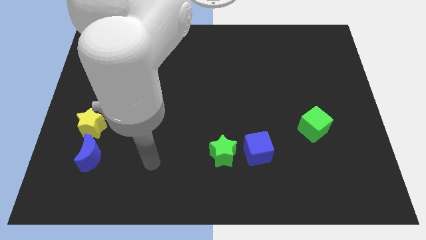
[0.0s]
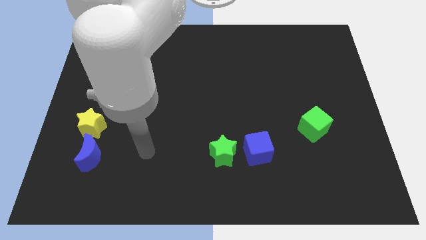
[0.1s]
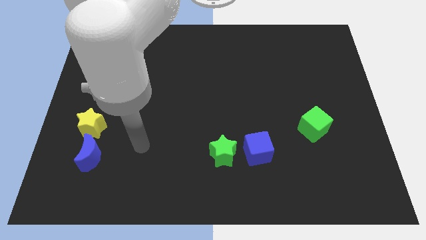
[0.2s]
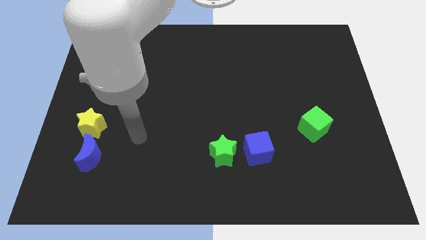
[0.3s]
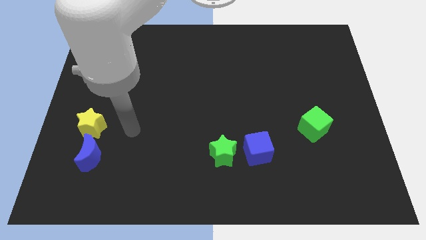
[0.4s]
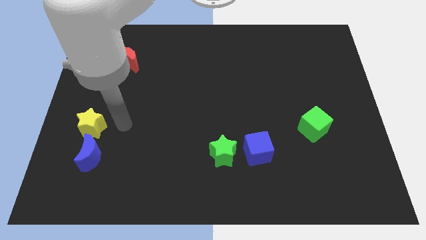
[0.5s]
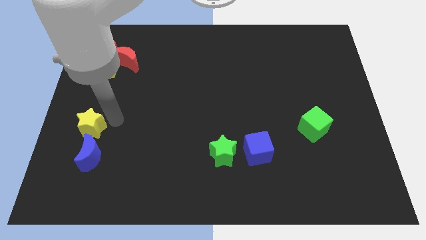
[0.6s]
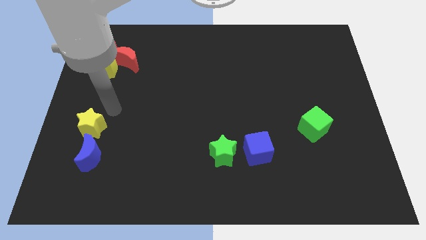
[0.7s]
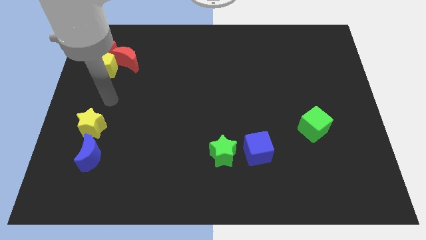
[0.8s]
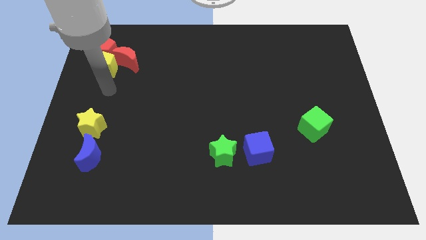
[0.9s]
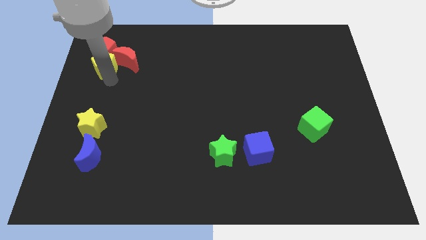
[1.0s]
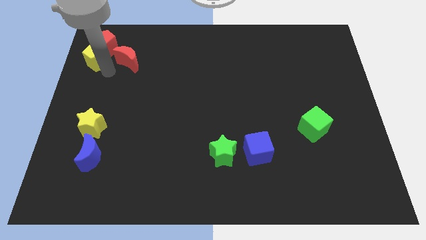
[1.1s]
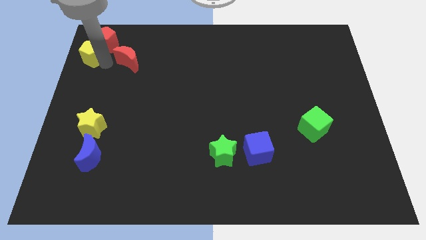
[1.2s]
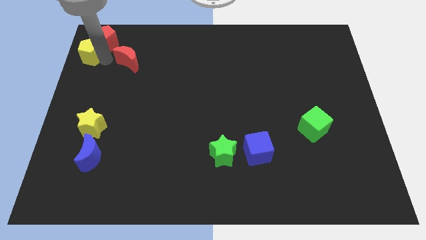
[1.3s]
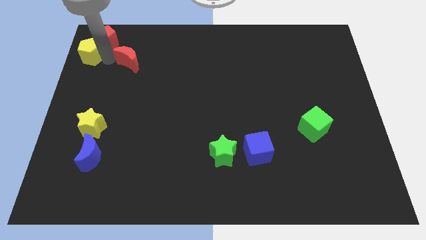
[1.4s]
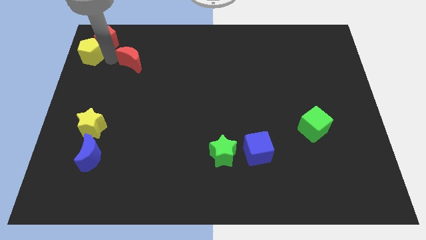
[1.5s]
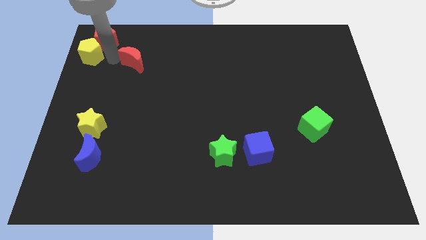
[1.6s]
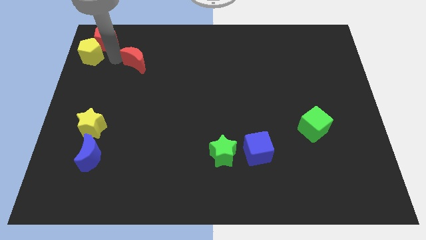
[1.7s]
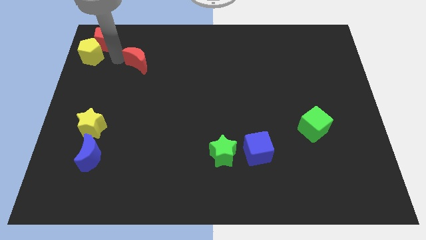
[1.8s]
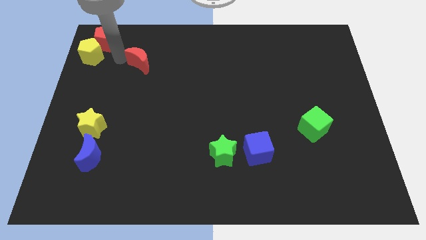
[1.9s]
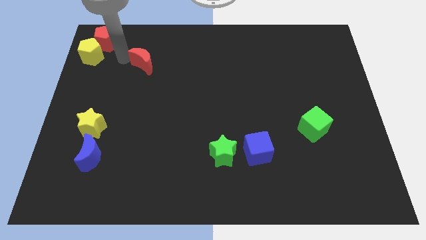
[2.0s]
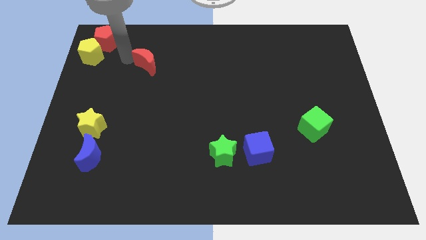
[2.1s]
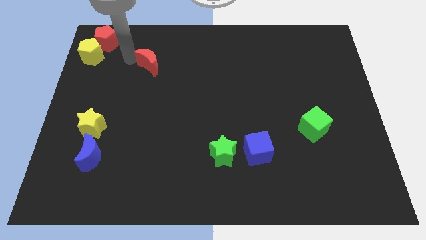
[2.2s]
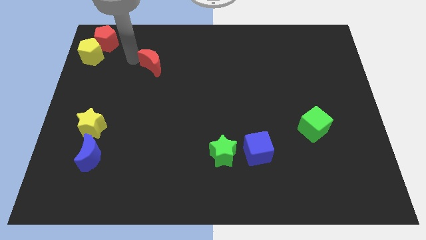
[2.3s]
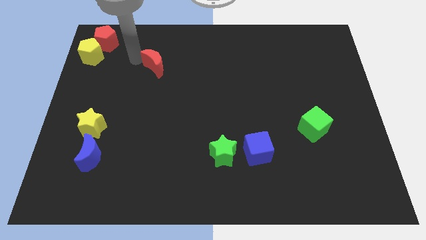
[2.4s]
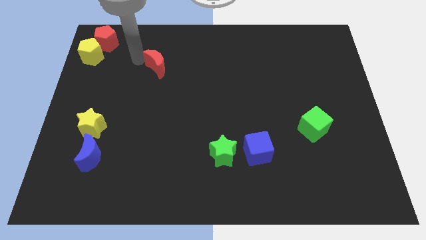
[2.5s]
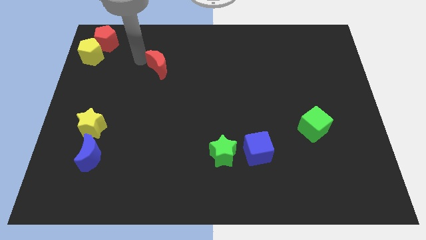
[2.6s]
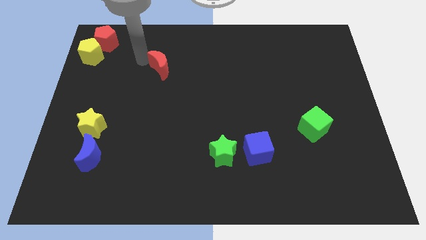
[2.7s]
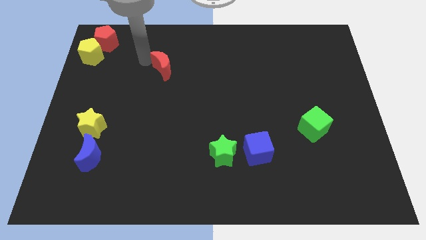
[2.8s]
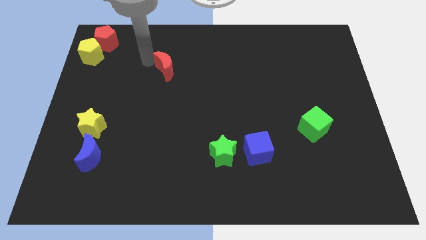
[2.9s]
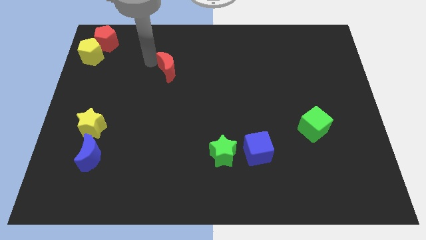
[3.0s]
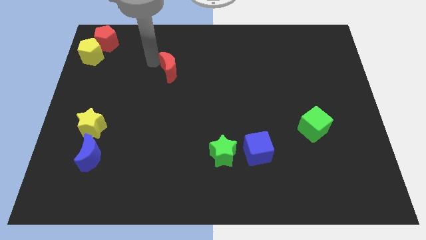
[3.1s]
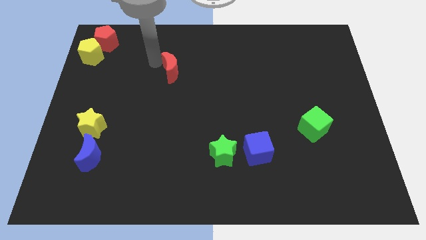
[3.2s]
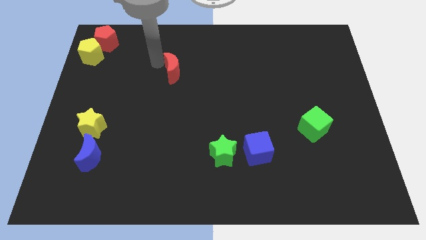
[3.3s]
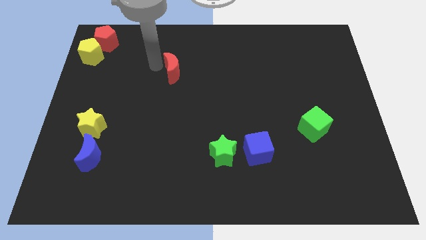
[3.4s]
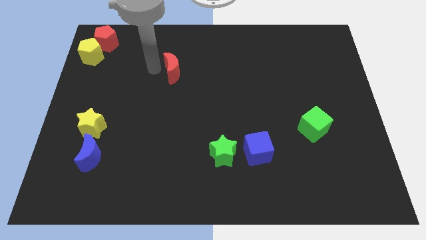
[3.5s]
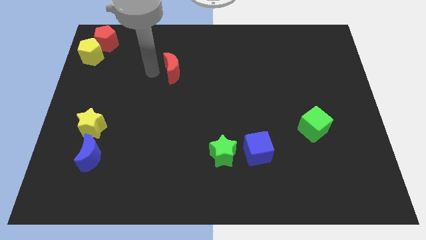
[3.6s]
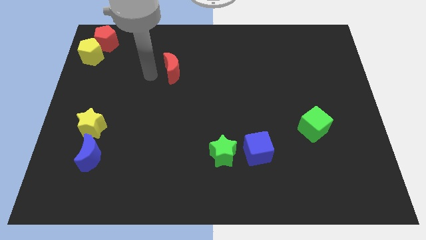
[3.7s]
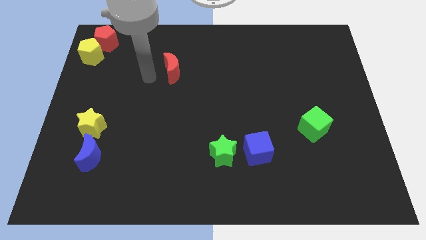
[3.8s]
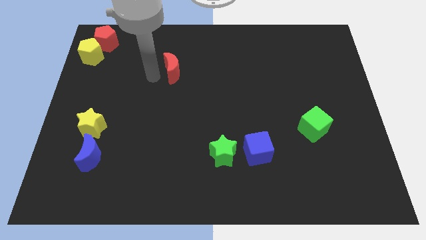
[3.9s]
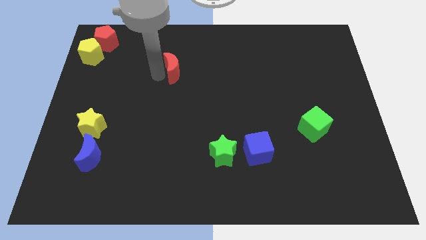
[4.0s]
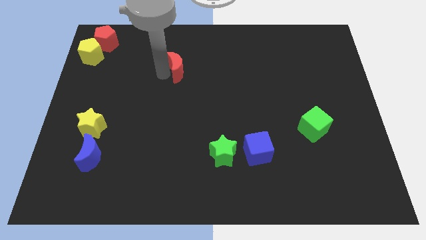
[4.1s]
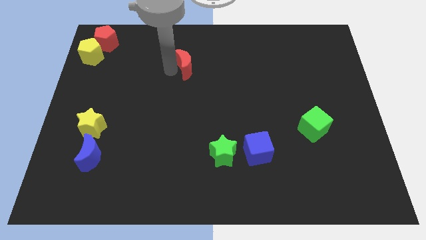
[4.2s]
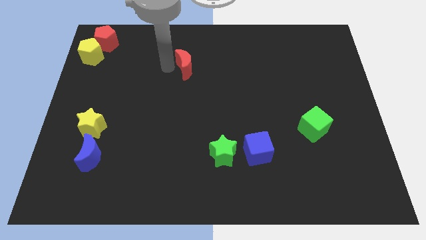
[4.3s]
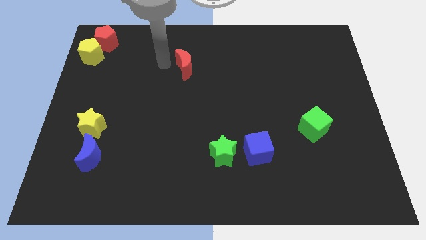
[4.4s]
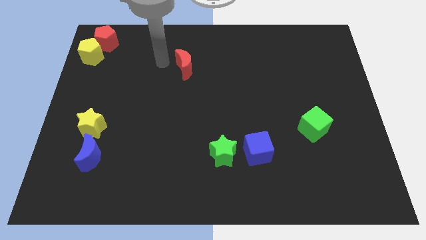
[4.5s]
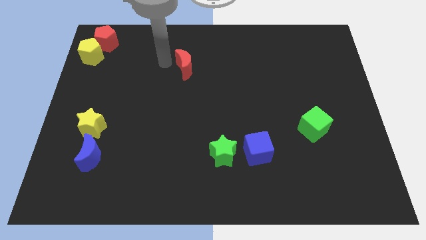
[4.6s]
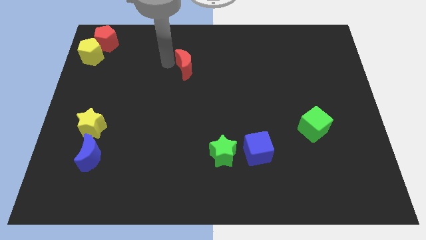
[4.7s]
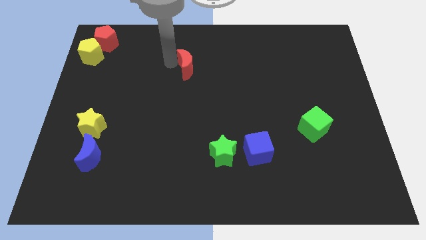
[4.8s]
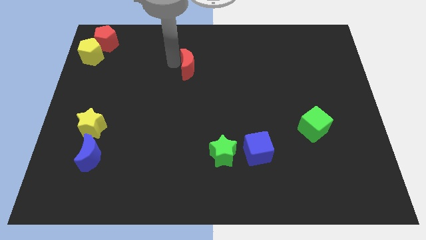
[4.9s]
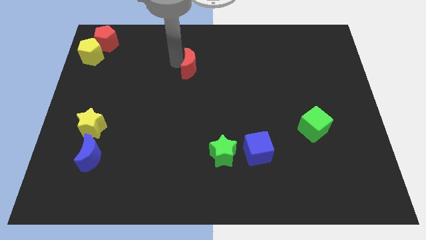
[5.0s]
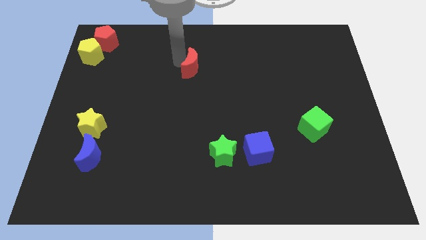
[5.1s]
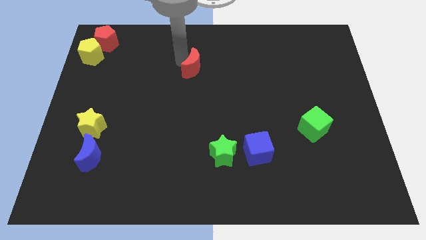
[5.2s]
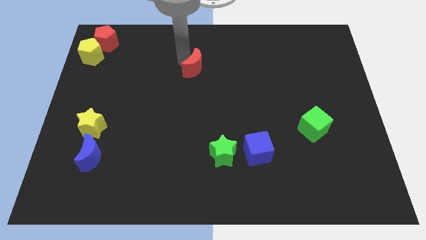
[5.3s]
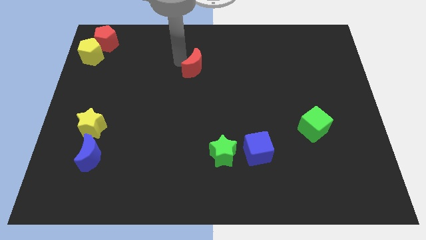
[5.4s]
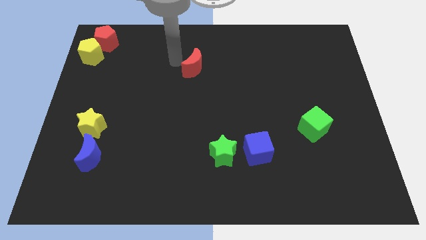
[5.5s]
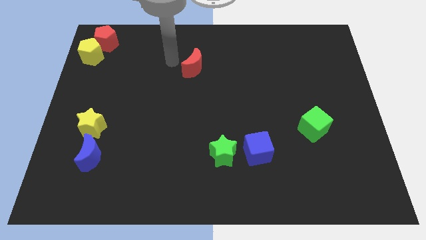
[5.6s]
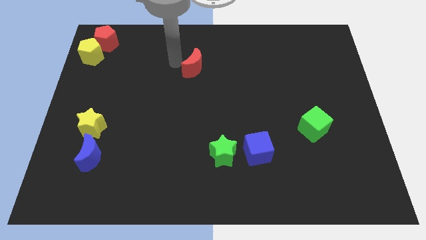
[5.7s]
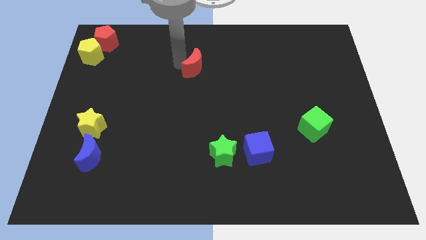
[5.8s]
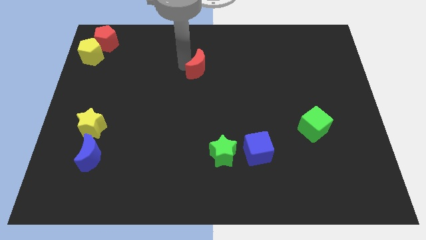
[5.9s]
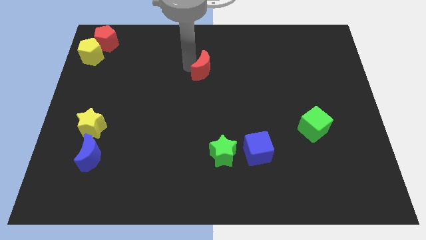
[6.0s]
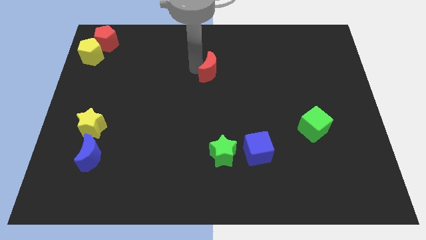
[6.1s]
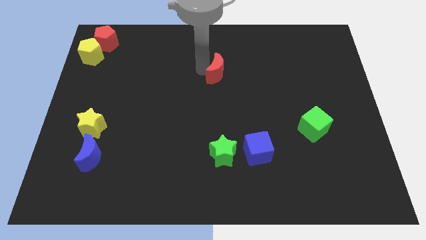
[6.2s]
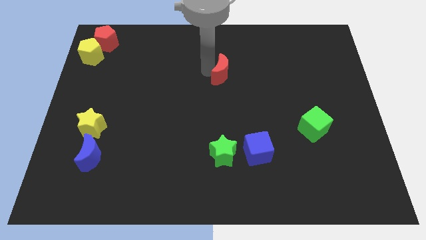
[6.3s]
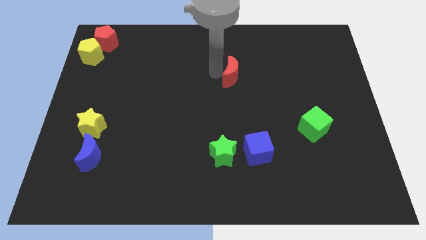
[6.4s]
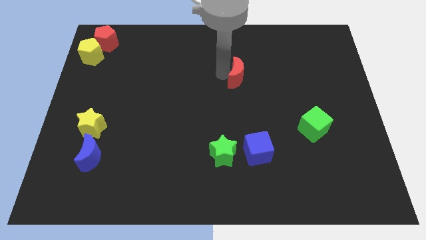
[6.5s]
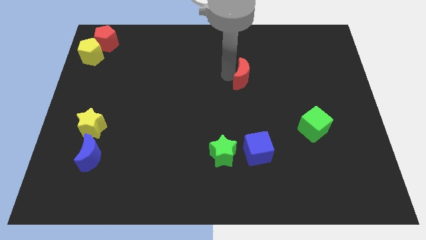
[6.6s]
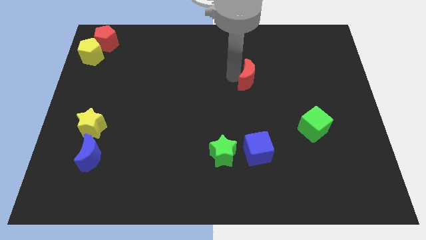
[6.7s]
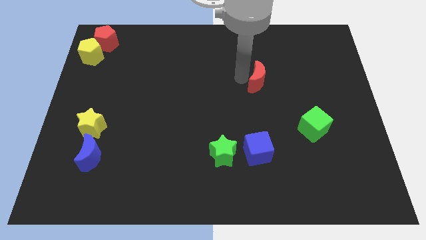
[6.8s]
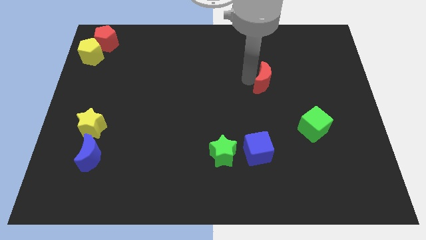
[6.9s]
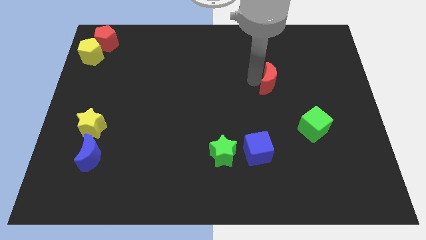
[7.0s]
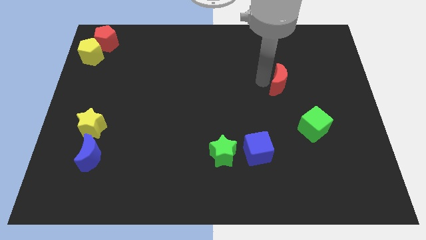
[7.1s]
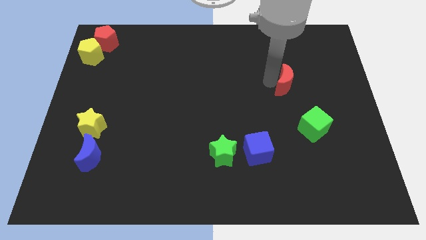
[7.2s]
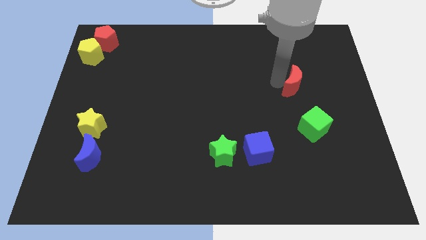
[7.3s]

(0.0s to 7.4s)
push the red moon to the top of the green cube
